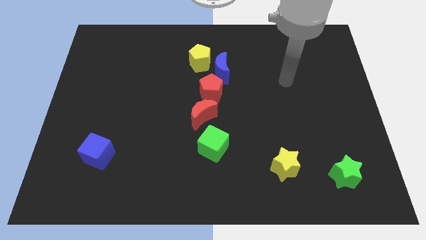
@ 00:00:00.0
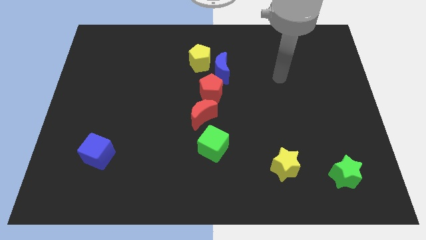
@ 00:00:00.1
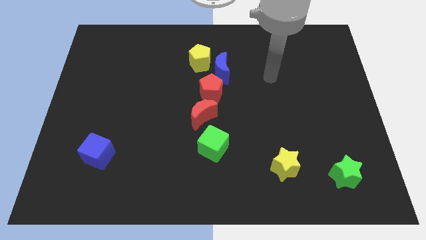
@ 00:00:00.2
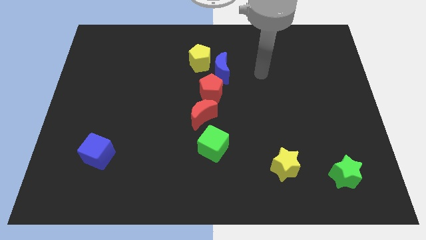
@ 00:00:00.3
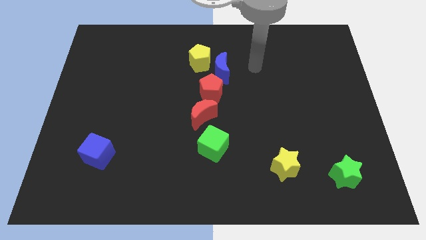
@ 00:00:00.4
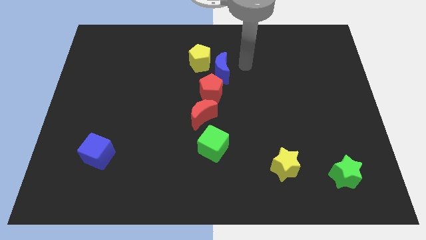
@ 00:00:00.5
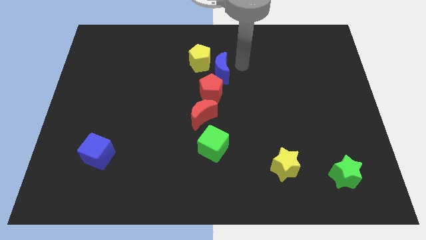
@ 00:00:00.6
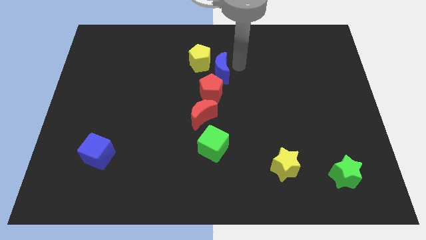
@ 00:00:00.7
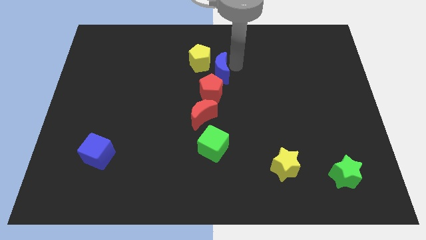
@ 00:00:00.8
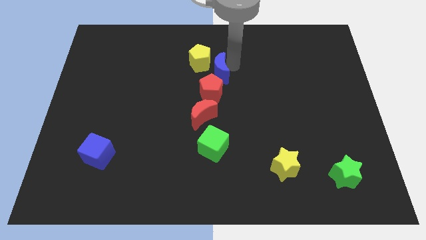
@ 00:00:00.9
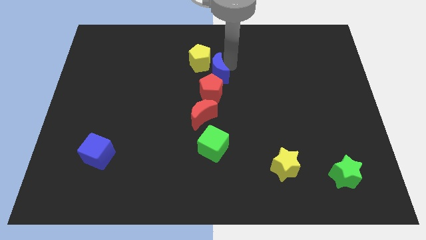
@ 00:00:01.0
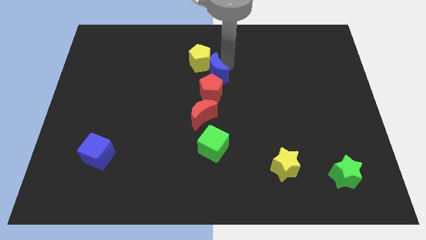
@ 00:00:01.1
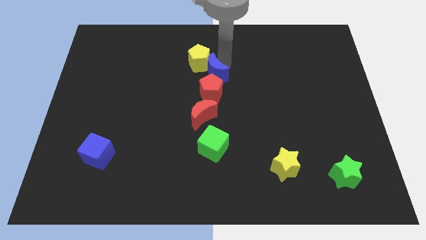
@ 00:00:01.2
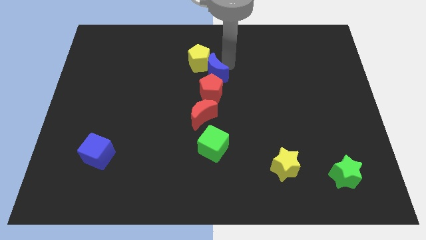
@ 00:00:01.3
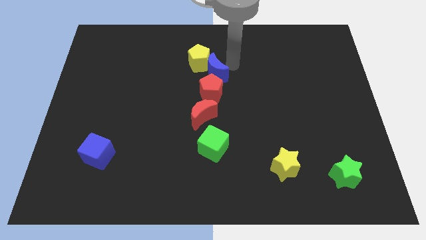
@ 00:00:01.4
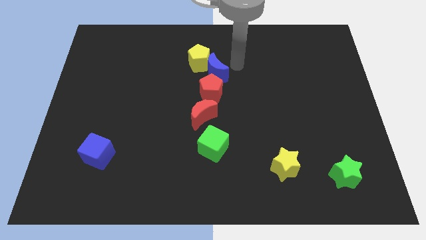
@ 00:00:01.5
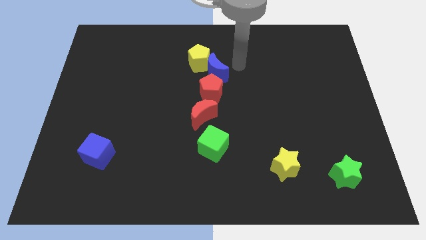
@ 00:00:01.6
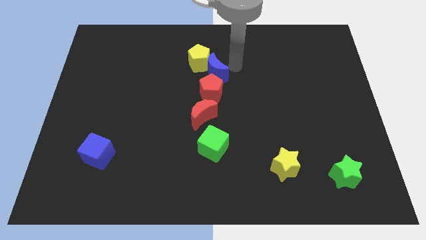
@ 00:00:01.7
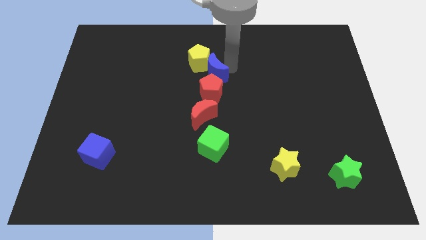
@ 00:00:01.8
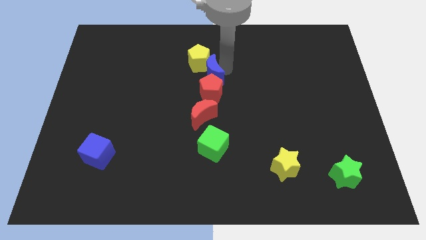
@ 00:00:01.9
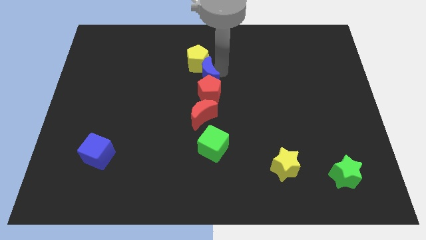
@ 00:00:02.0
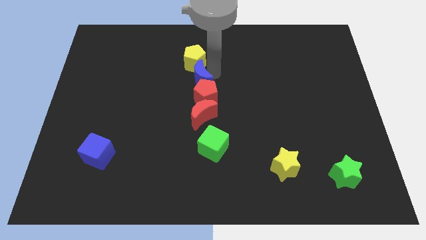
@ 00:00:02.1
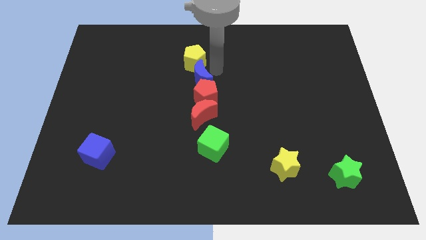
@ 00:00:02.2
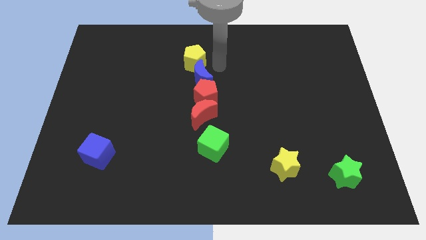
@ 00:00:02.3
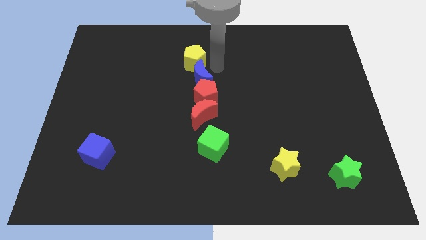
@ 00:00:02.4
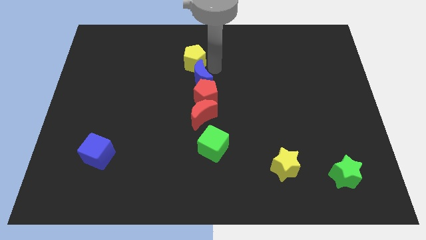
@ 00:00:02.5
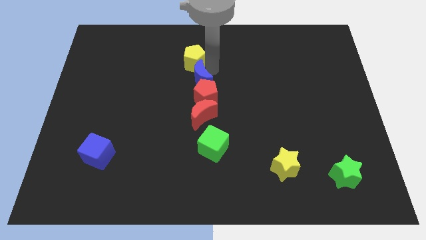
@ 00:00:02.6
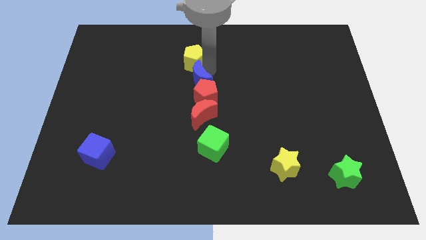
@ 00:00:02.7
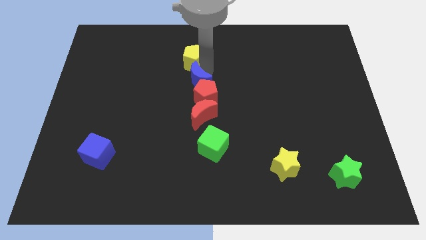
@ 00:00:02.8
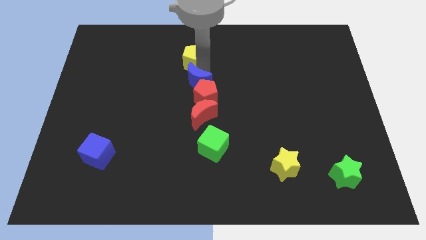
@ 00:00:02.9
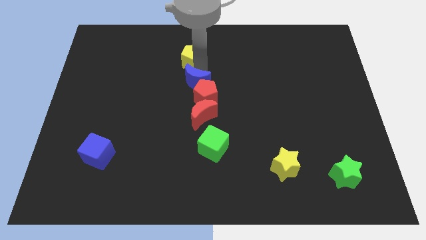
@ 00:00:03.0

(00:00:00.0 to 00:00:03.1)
slightly slide the blue moon down and left diagonally

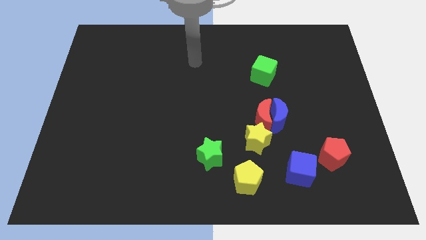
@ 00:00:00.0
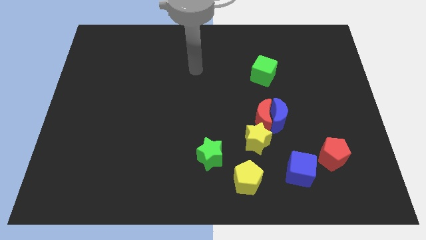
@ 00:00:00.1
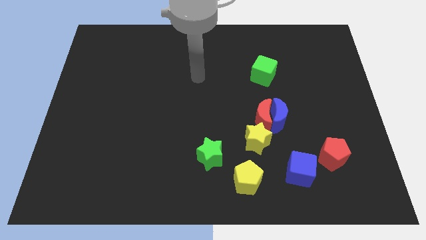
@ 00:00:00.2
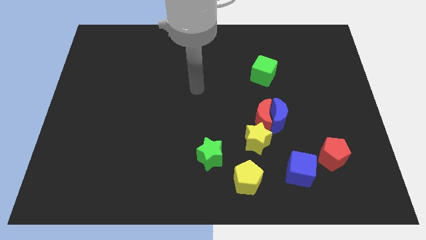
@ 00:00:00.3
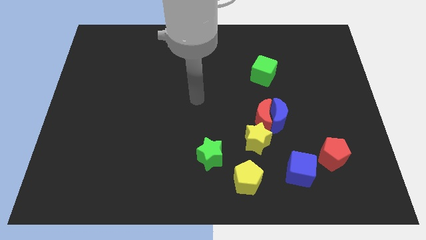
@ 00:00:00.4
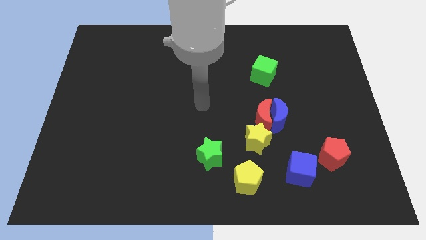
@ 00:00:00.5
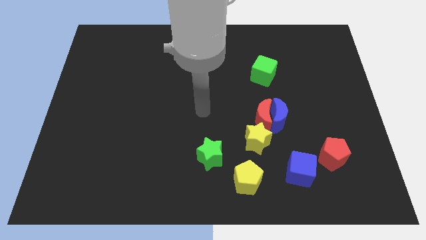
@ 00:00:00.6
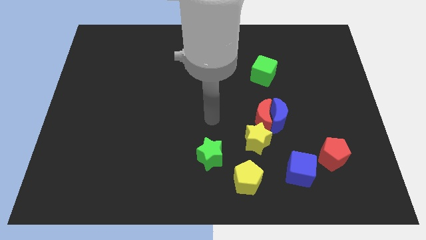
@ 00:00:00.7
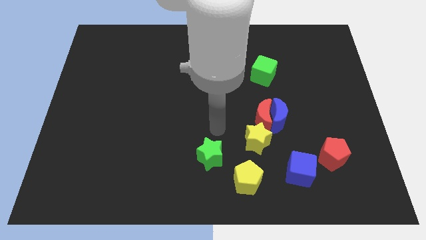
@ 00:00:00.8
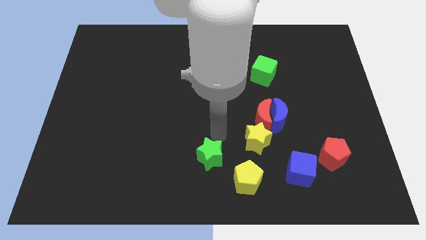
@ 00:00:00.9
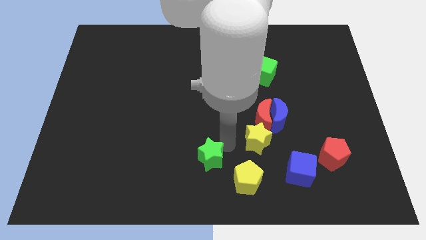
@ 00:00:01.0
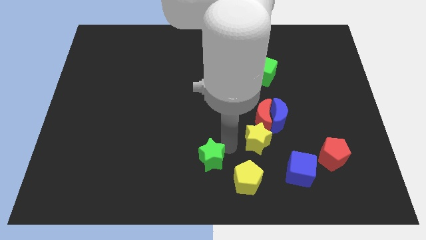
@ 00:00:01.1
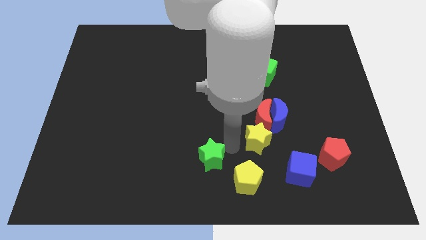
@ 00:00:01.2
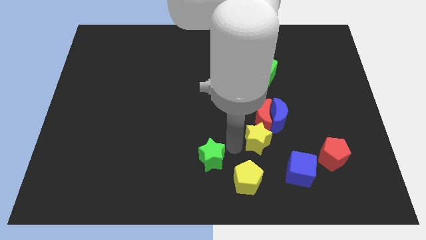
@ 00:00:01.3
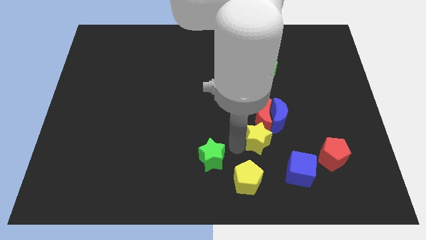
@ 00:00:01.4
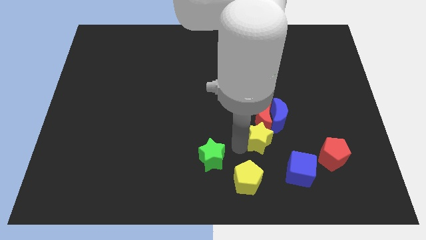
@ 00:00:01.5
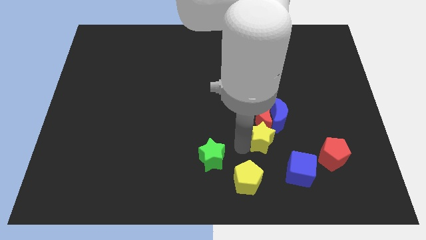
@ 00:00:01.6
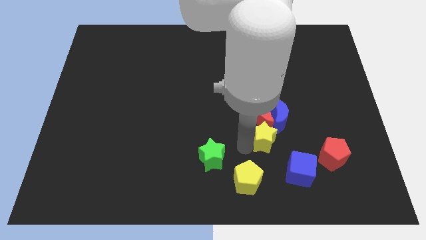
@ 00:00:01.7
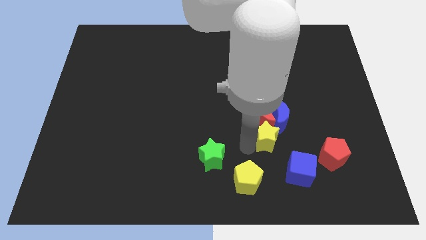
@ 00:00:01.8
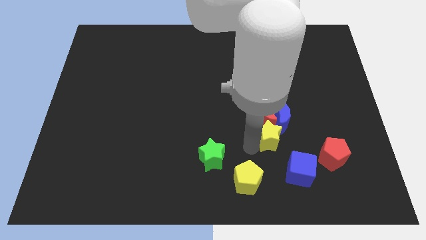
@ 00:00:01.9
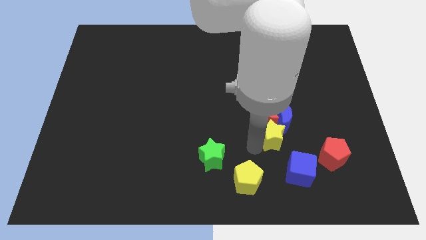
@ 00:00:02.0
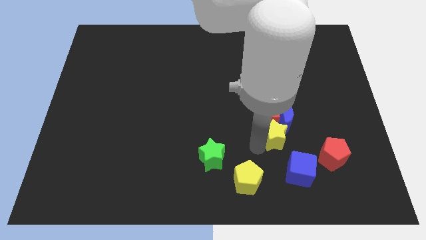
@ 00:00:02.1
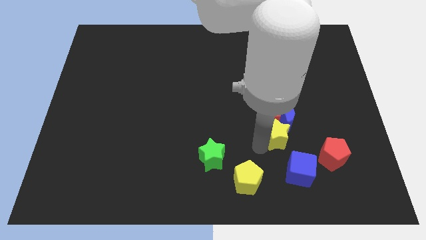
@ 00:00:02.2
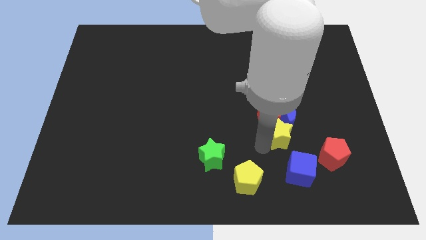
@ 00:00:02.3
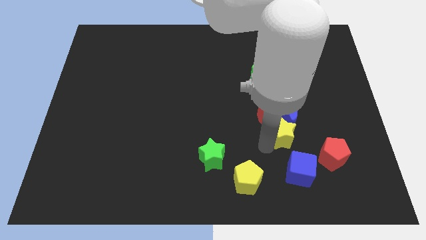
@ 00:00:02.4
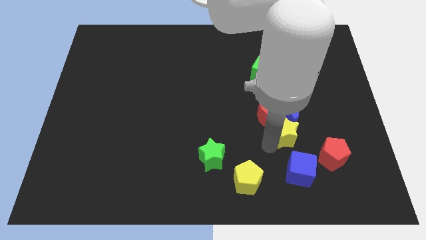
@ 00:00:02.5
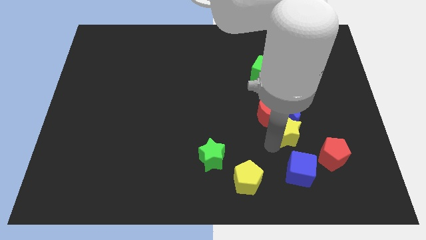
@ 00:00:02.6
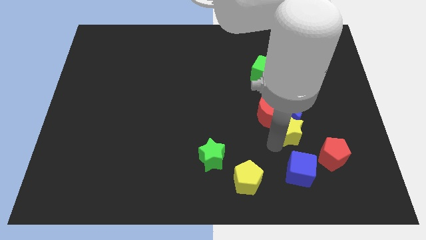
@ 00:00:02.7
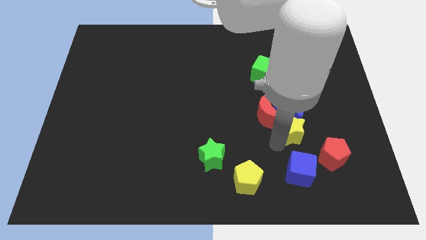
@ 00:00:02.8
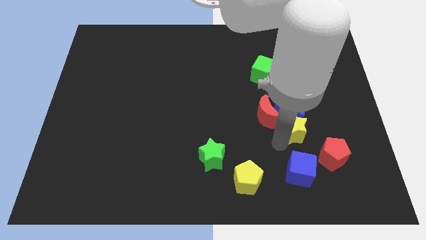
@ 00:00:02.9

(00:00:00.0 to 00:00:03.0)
move the yellow star upwards and then right a bit

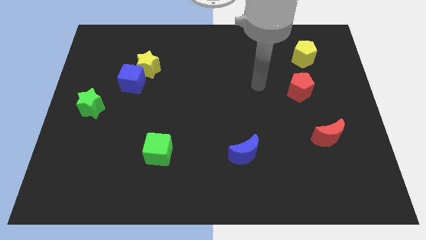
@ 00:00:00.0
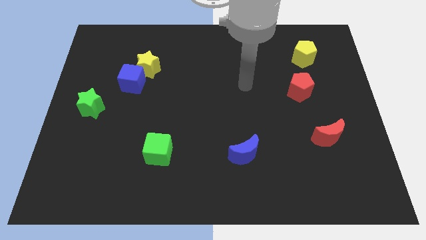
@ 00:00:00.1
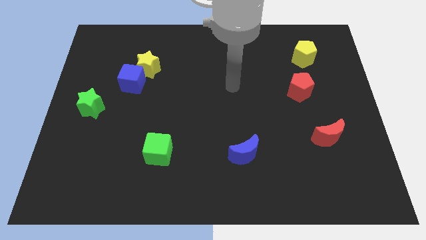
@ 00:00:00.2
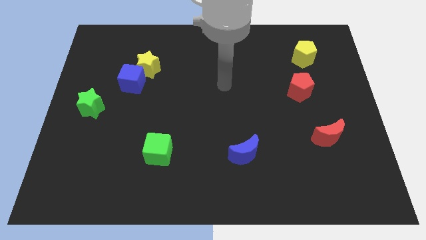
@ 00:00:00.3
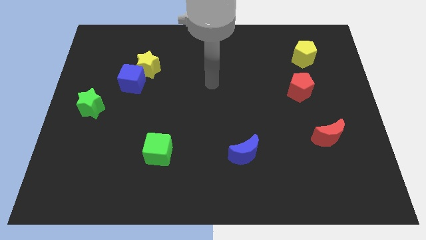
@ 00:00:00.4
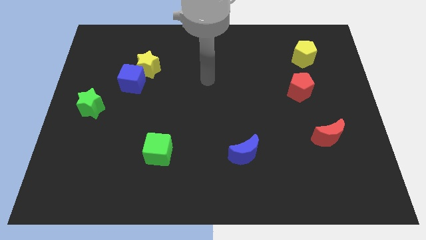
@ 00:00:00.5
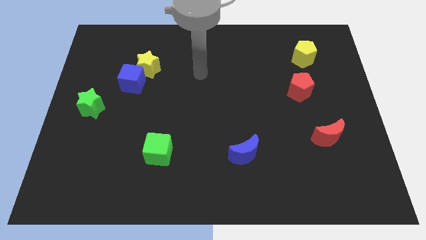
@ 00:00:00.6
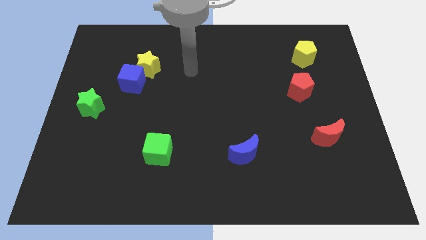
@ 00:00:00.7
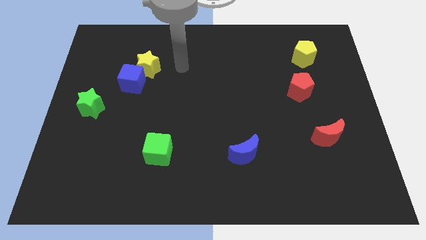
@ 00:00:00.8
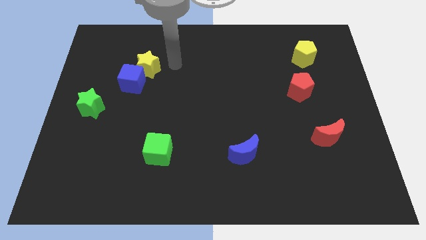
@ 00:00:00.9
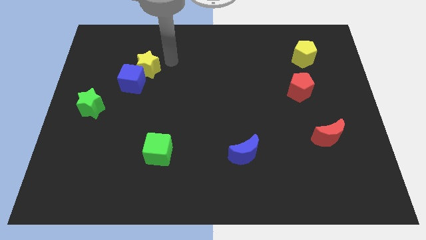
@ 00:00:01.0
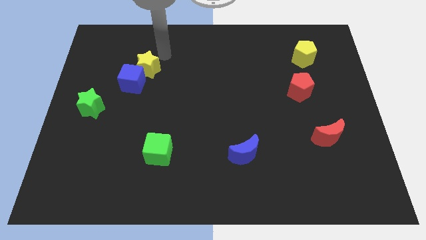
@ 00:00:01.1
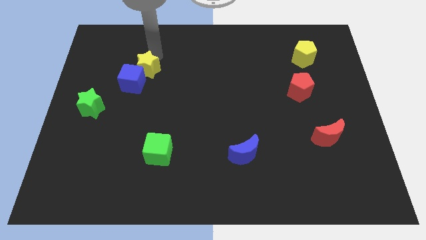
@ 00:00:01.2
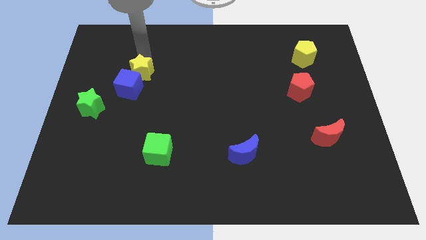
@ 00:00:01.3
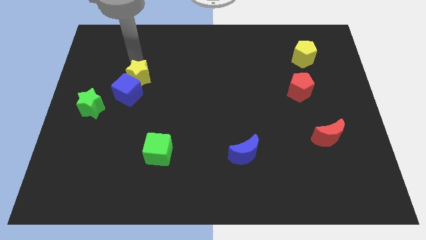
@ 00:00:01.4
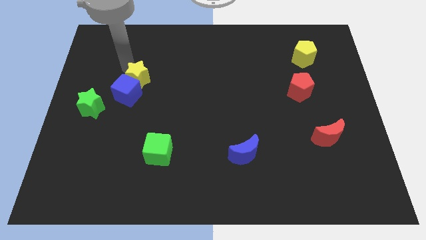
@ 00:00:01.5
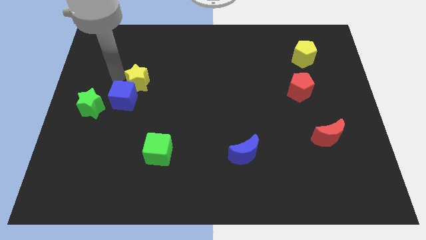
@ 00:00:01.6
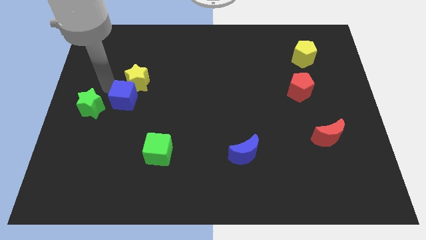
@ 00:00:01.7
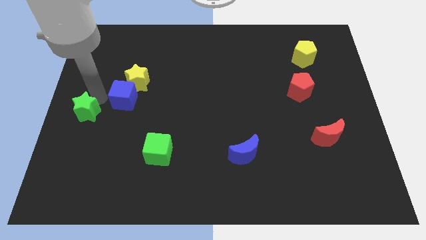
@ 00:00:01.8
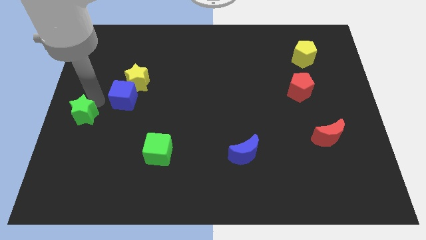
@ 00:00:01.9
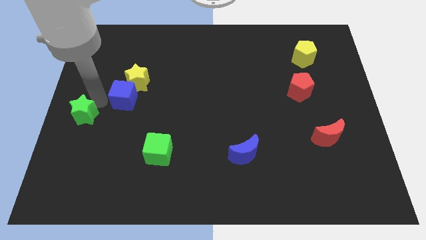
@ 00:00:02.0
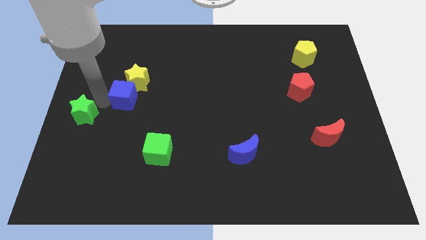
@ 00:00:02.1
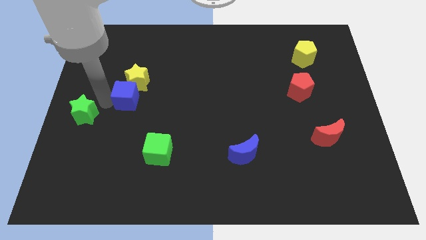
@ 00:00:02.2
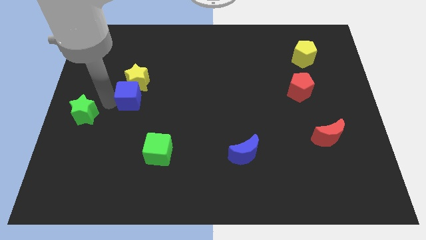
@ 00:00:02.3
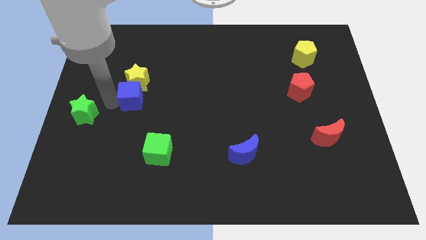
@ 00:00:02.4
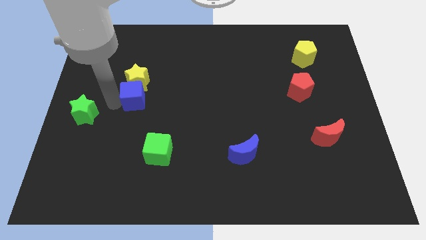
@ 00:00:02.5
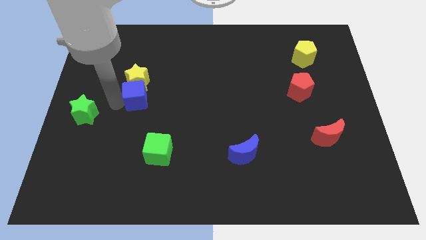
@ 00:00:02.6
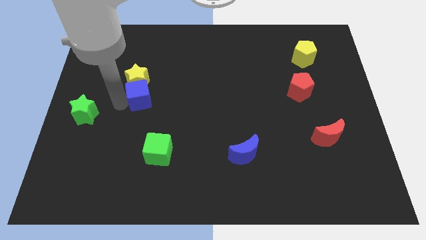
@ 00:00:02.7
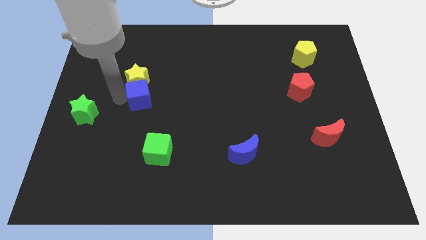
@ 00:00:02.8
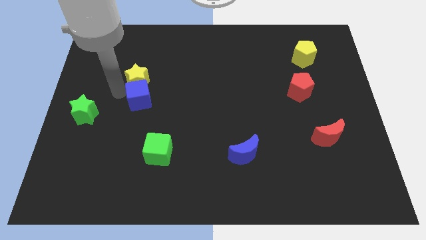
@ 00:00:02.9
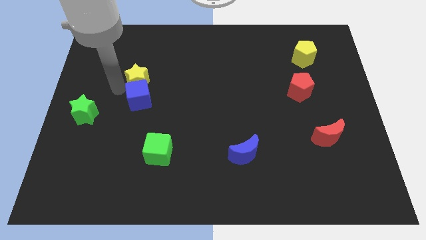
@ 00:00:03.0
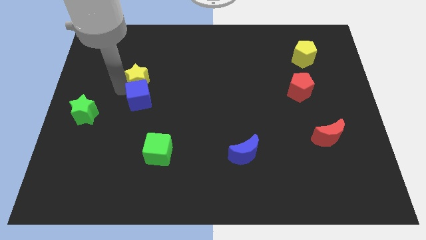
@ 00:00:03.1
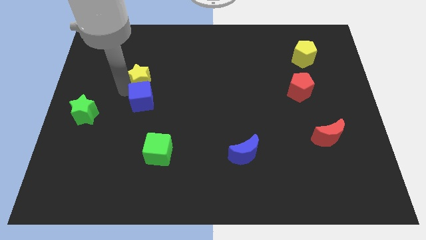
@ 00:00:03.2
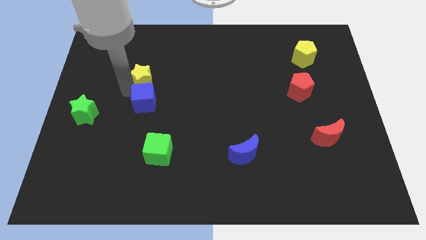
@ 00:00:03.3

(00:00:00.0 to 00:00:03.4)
push the blue cube down and right diagonally a little
